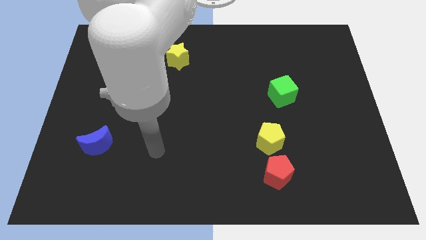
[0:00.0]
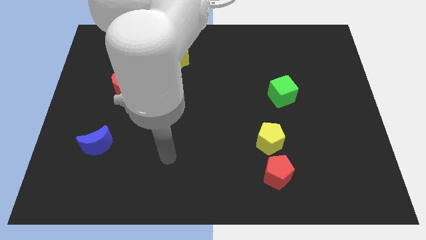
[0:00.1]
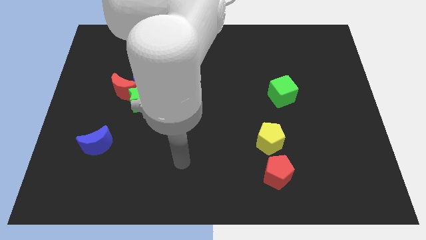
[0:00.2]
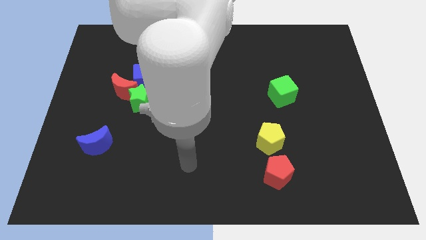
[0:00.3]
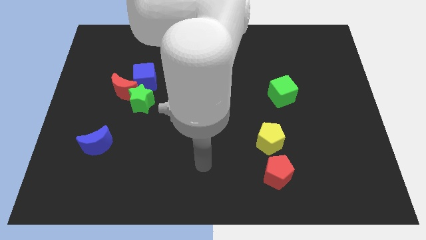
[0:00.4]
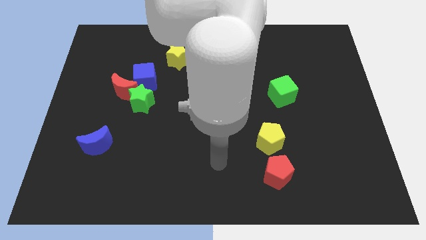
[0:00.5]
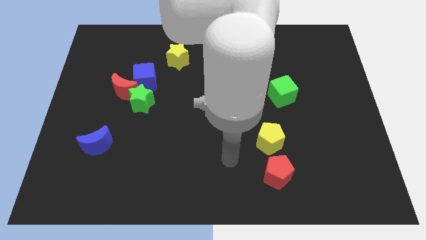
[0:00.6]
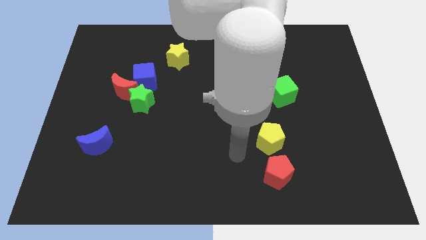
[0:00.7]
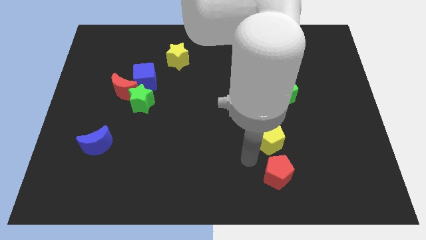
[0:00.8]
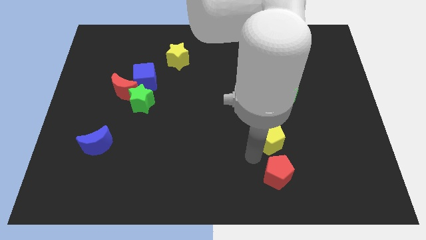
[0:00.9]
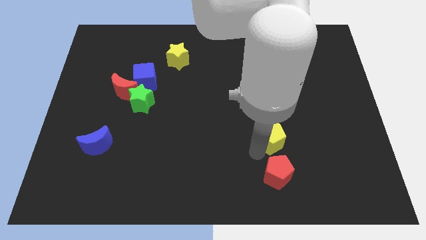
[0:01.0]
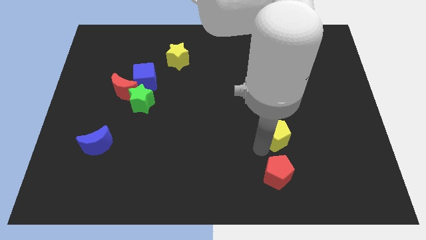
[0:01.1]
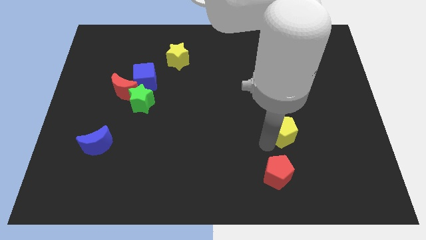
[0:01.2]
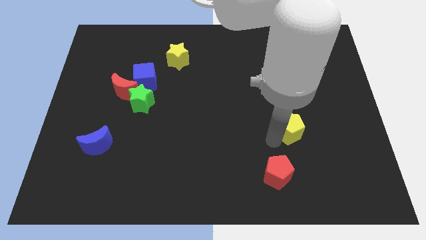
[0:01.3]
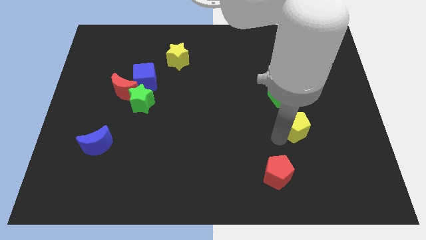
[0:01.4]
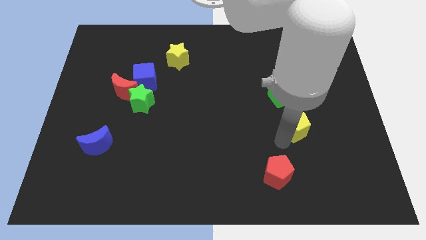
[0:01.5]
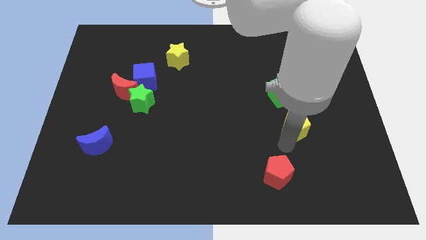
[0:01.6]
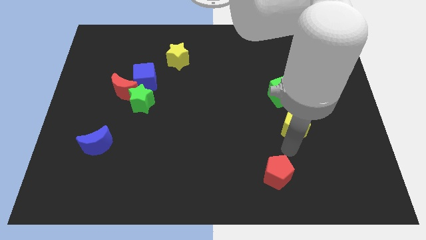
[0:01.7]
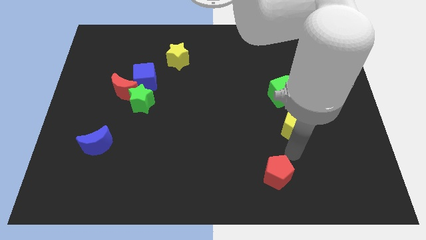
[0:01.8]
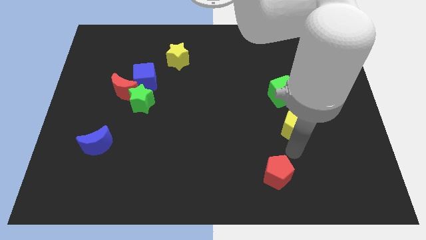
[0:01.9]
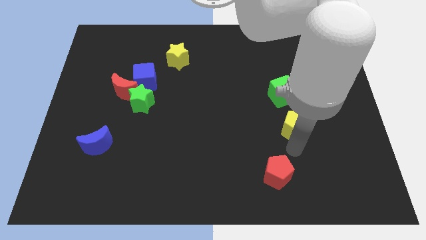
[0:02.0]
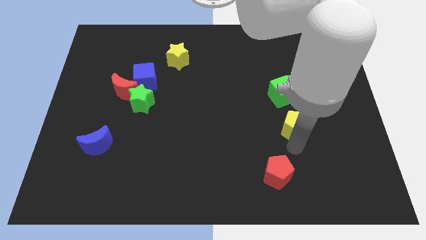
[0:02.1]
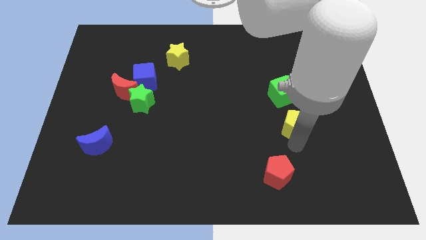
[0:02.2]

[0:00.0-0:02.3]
slightly move the yellow pentagon up and to the right

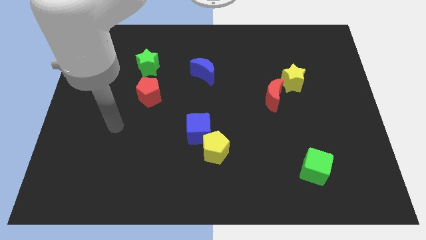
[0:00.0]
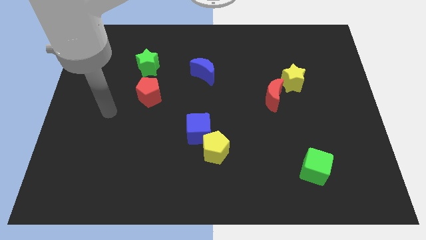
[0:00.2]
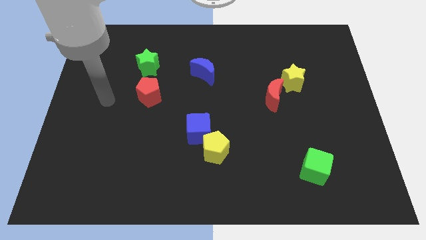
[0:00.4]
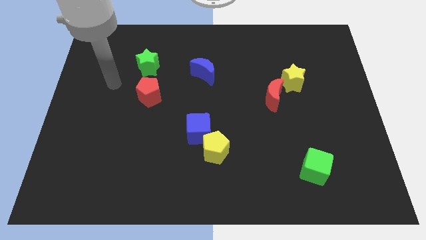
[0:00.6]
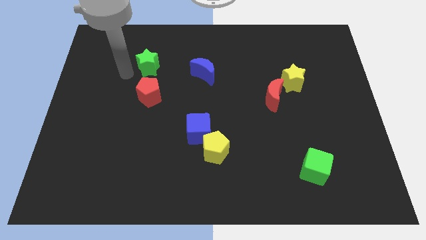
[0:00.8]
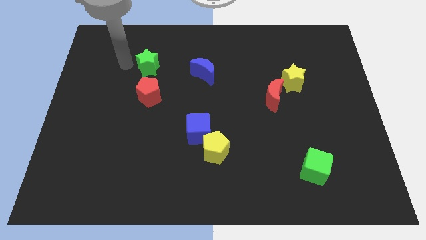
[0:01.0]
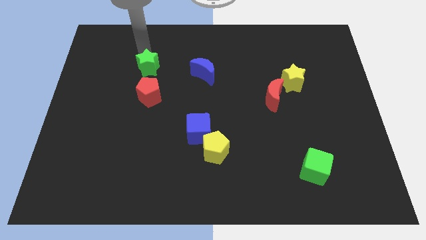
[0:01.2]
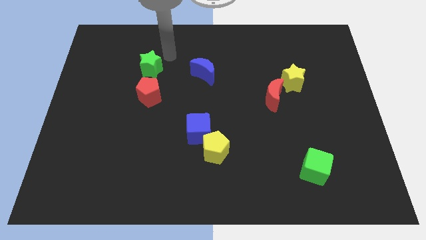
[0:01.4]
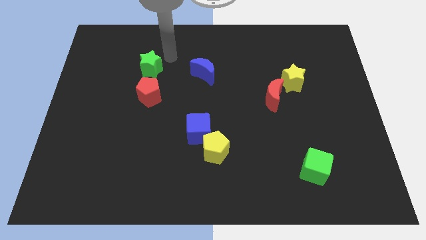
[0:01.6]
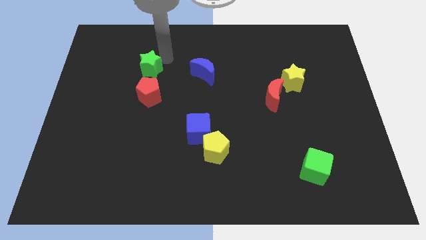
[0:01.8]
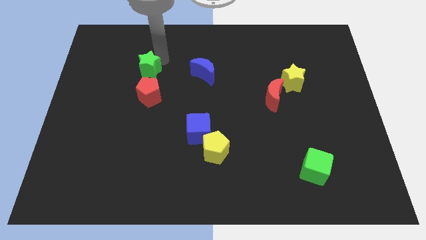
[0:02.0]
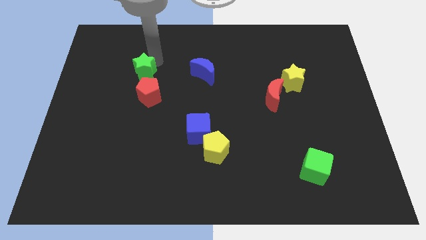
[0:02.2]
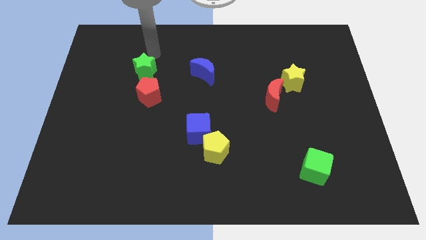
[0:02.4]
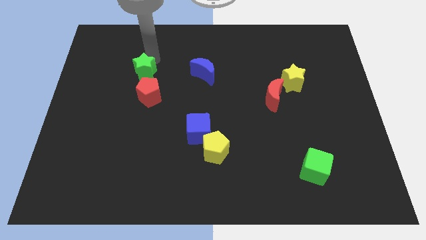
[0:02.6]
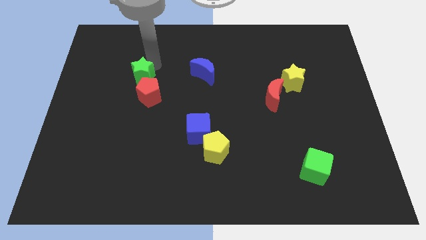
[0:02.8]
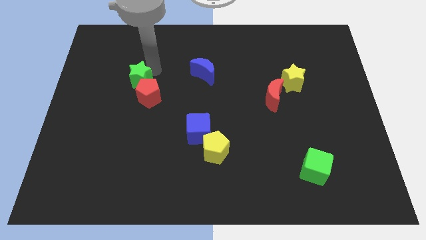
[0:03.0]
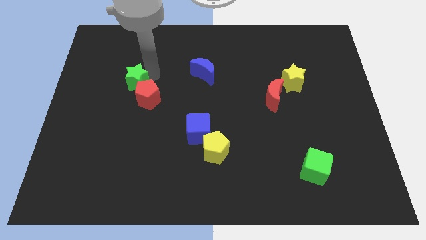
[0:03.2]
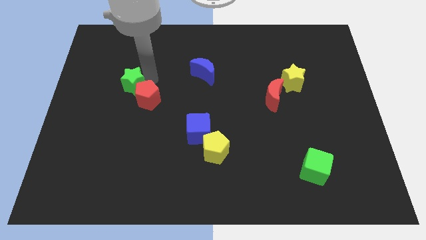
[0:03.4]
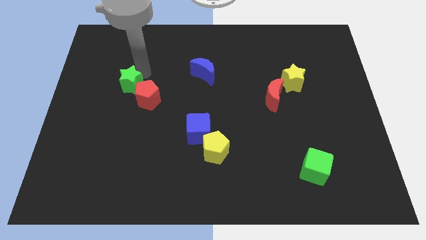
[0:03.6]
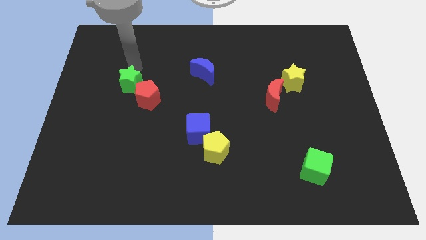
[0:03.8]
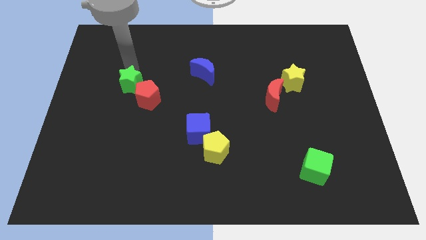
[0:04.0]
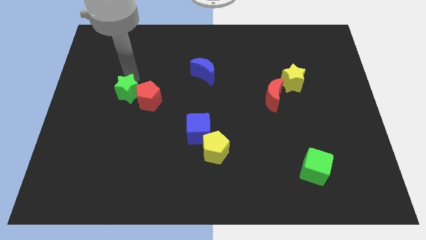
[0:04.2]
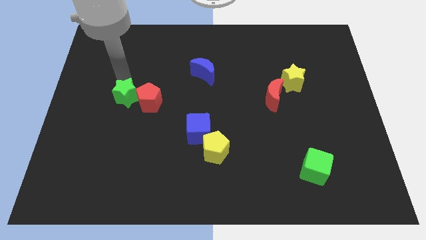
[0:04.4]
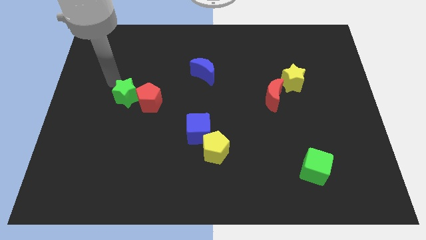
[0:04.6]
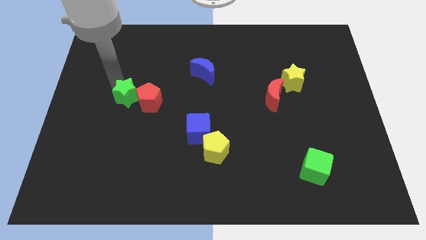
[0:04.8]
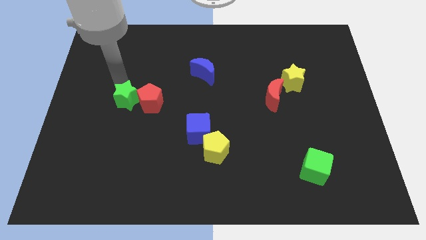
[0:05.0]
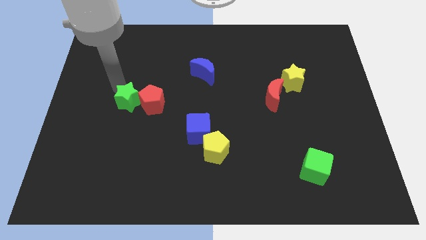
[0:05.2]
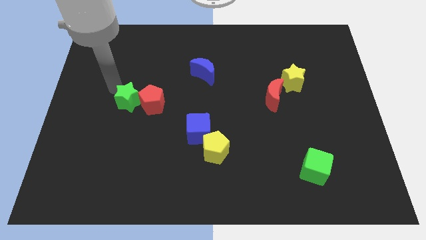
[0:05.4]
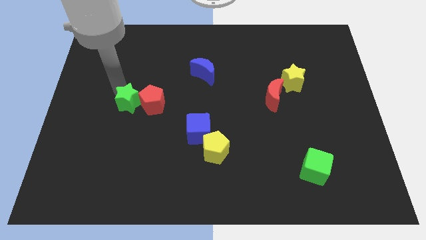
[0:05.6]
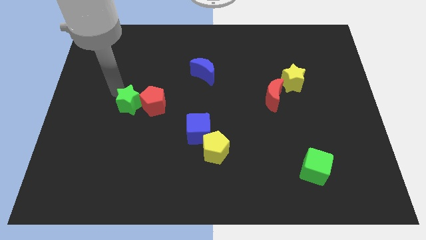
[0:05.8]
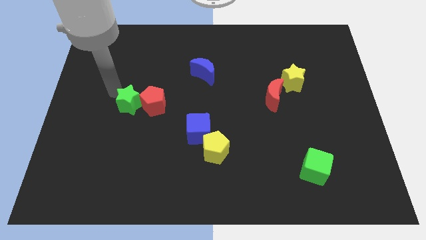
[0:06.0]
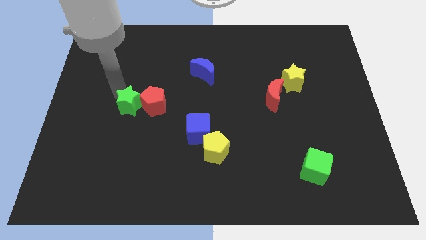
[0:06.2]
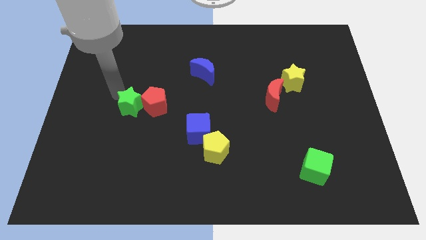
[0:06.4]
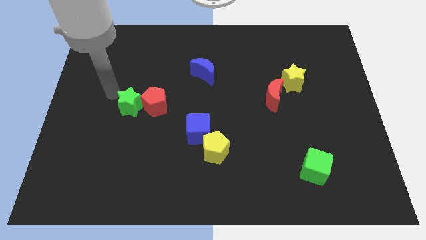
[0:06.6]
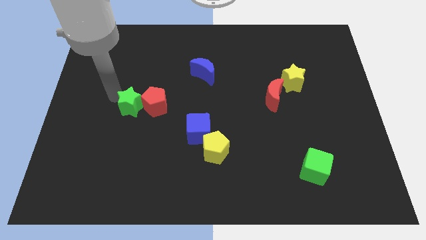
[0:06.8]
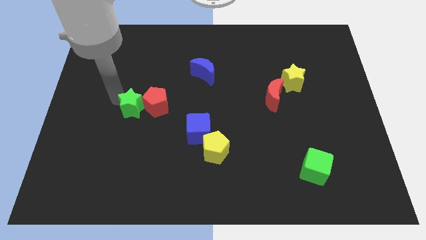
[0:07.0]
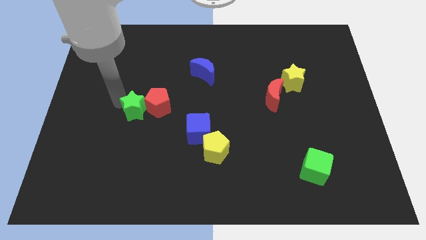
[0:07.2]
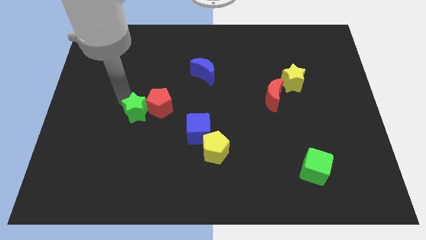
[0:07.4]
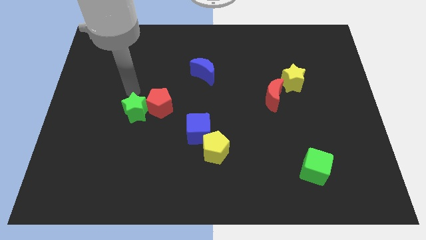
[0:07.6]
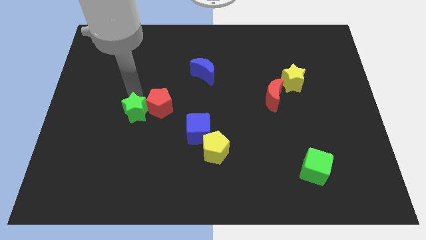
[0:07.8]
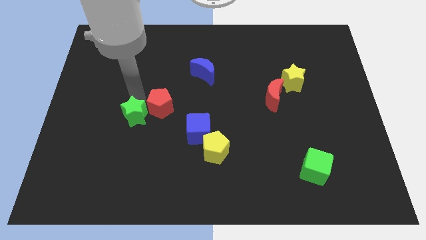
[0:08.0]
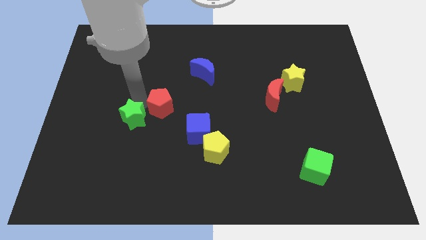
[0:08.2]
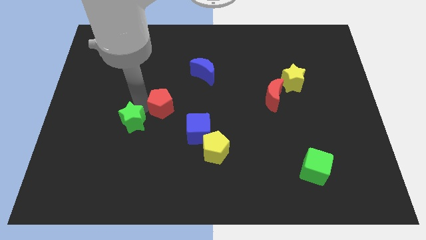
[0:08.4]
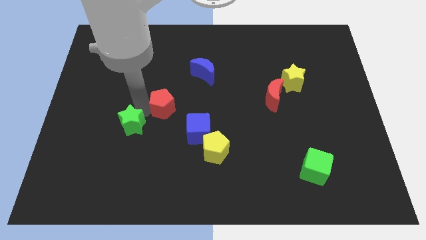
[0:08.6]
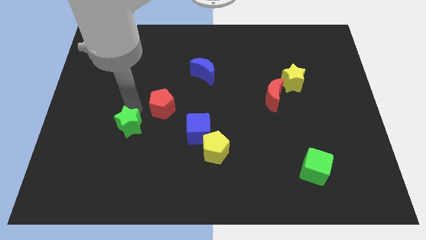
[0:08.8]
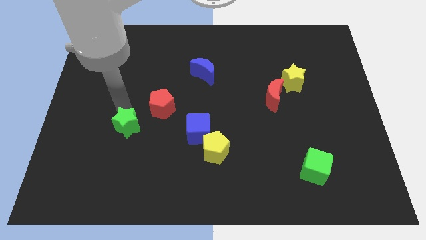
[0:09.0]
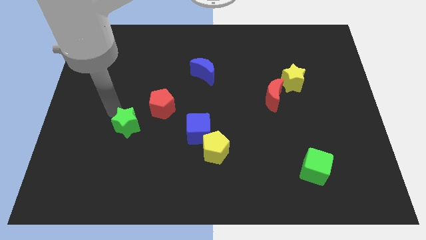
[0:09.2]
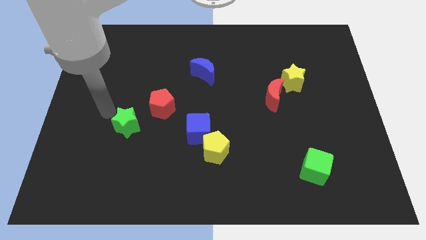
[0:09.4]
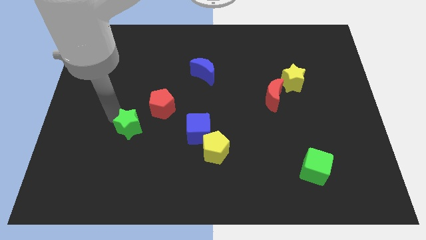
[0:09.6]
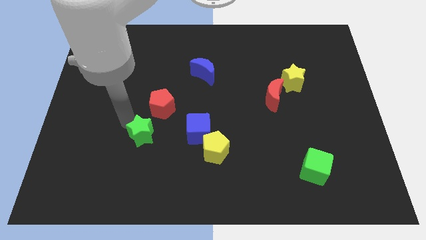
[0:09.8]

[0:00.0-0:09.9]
push the green star downwards

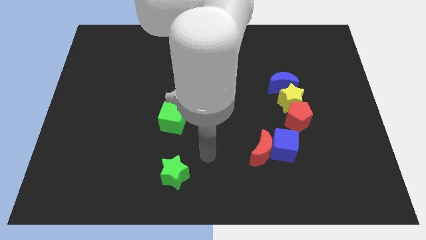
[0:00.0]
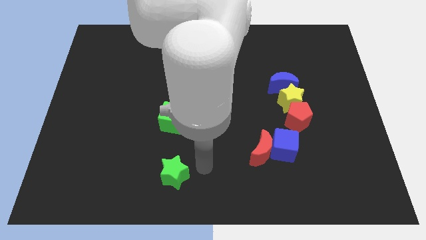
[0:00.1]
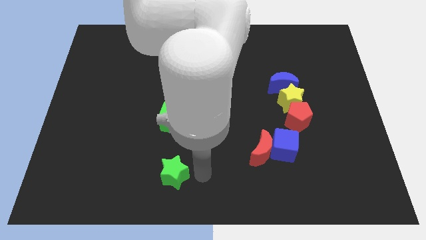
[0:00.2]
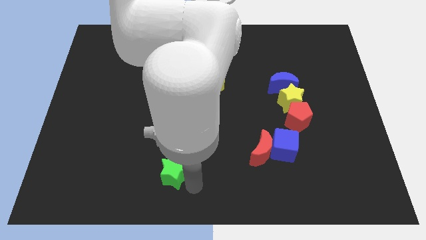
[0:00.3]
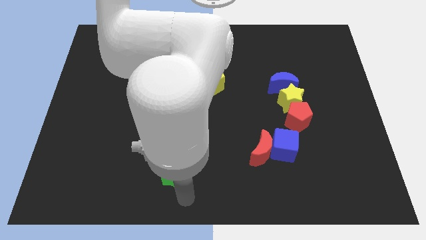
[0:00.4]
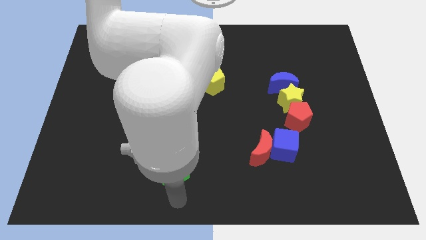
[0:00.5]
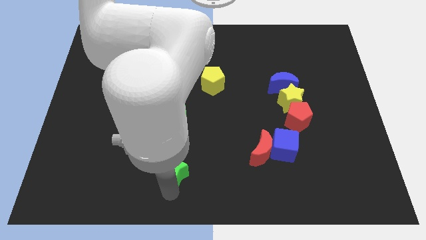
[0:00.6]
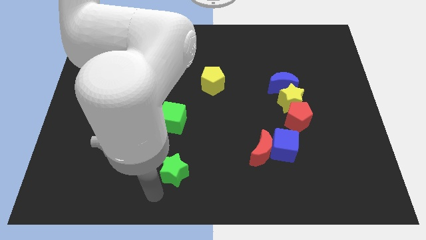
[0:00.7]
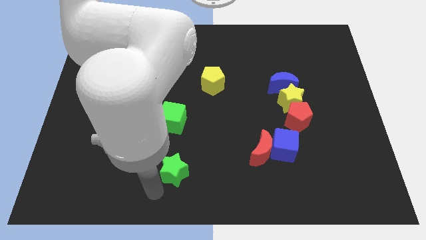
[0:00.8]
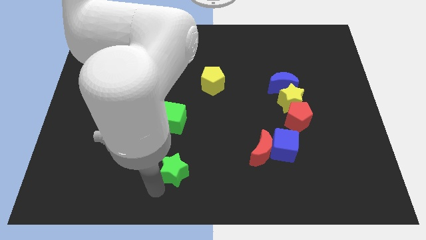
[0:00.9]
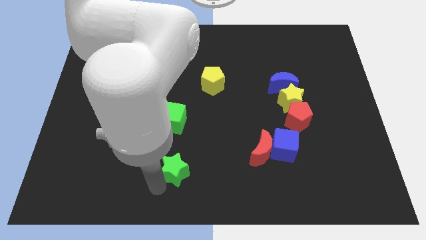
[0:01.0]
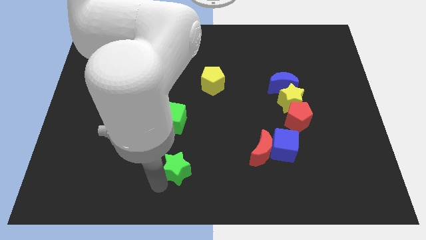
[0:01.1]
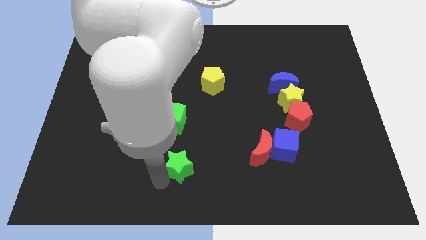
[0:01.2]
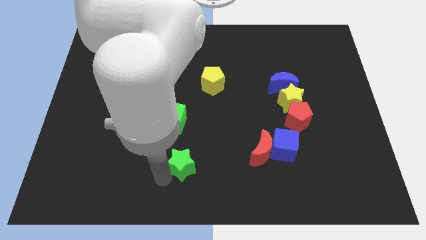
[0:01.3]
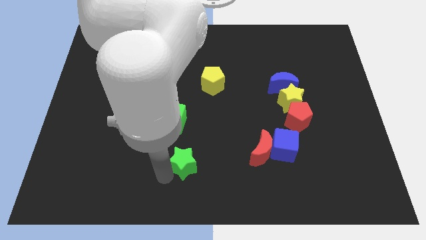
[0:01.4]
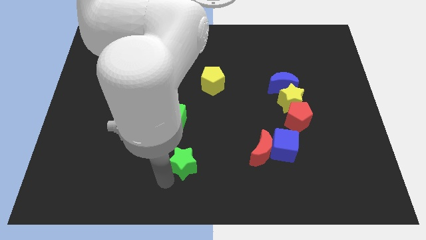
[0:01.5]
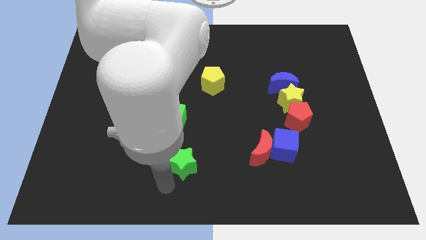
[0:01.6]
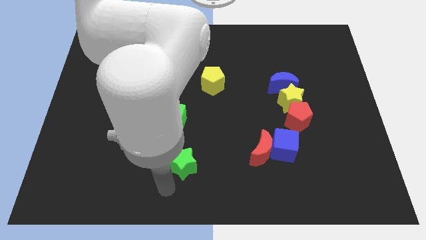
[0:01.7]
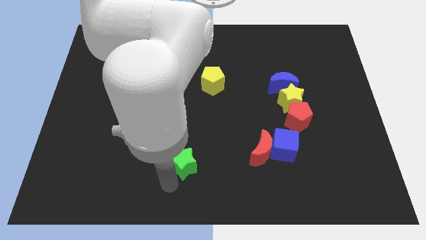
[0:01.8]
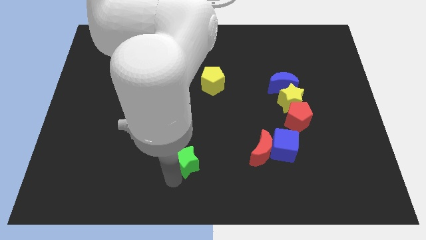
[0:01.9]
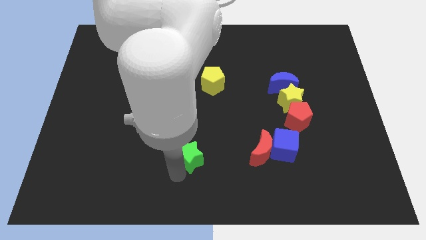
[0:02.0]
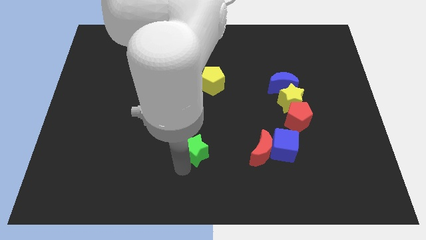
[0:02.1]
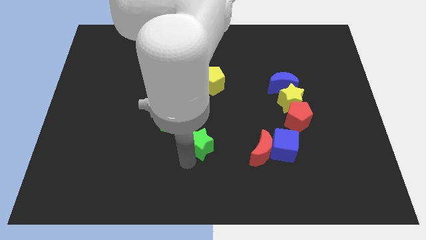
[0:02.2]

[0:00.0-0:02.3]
move the green star slightly upwards and then to the right
